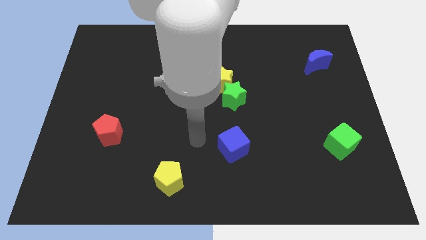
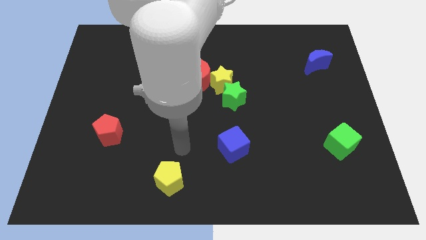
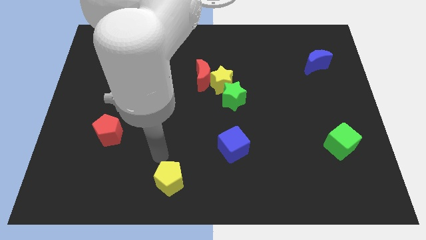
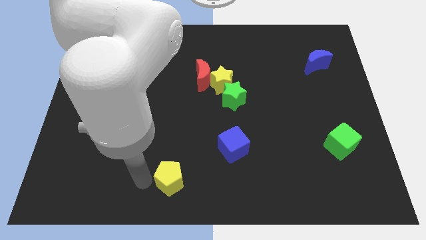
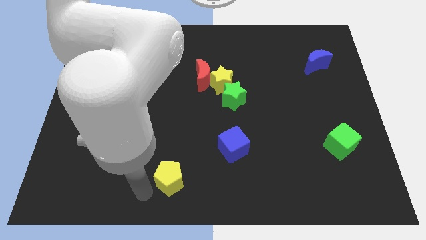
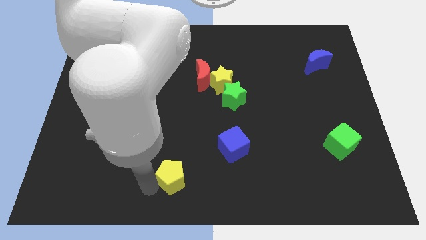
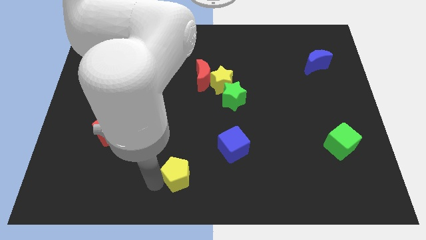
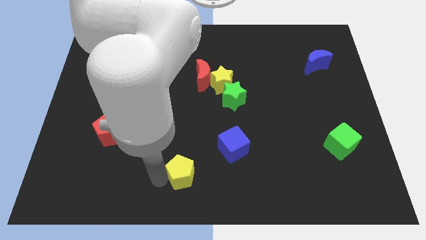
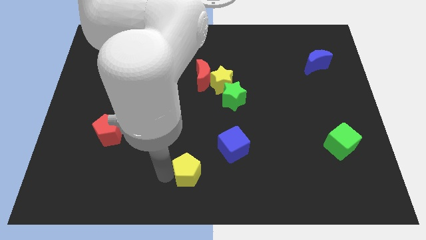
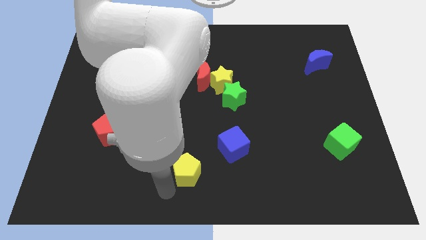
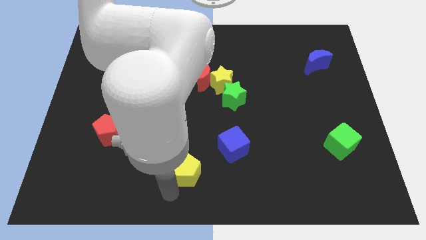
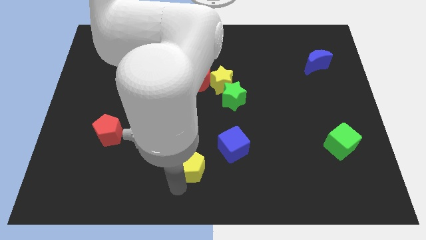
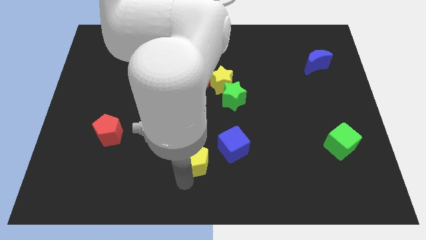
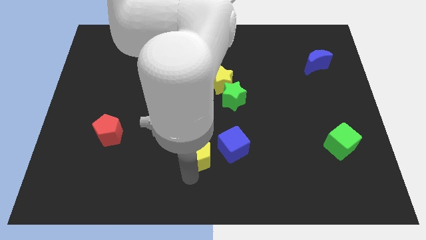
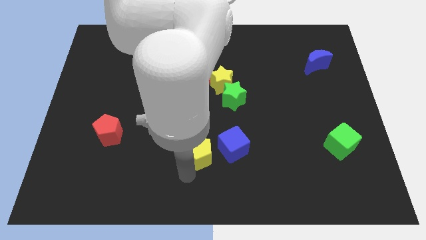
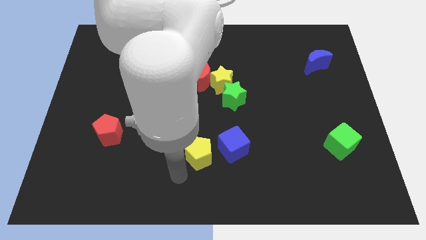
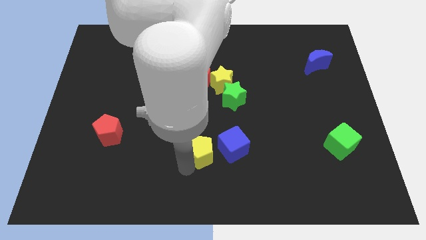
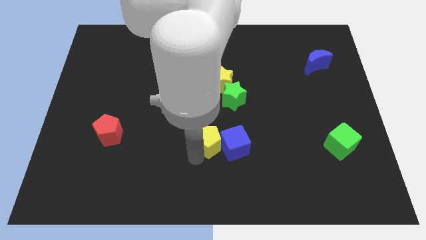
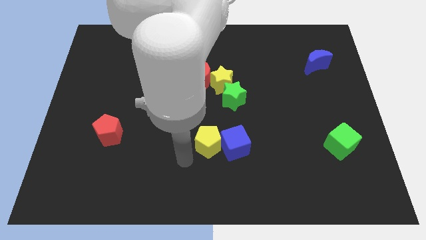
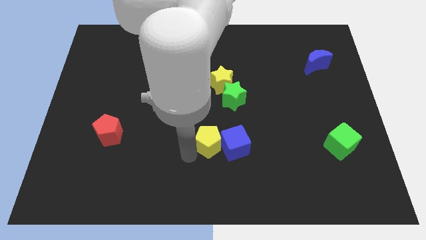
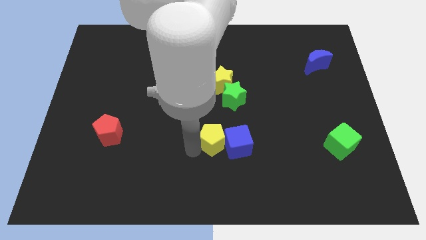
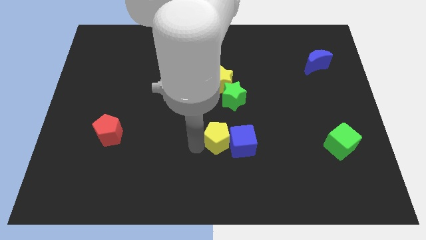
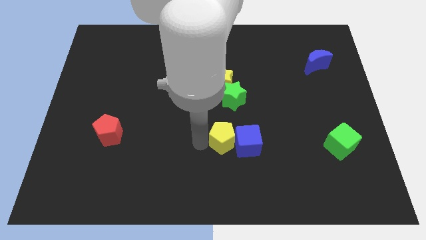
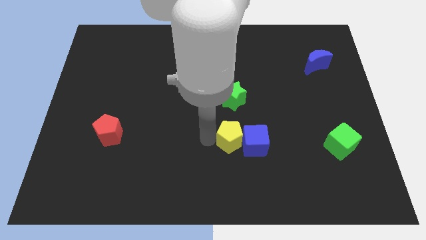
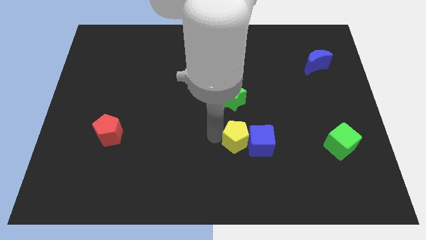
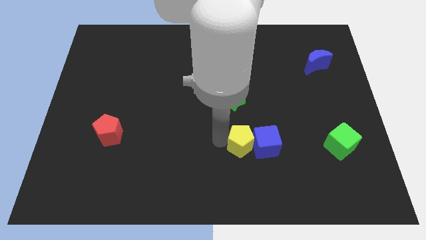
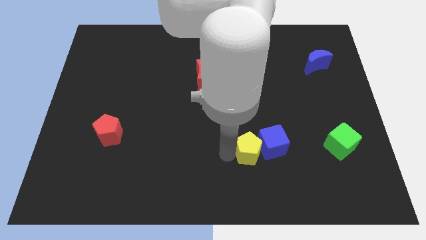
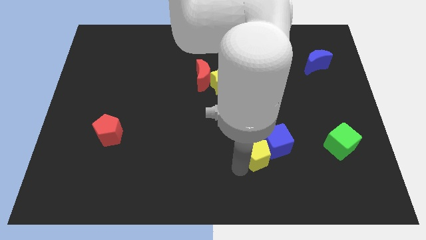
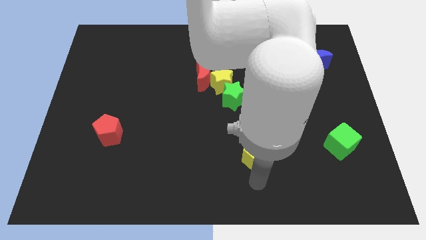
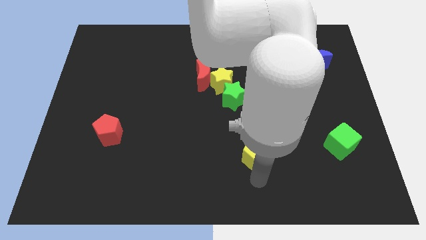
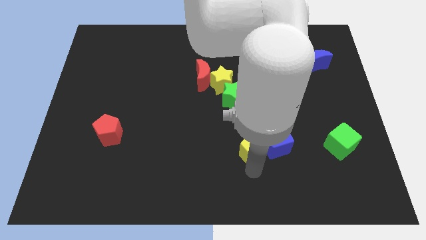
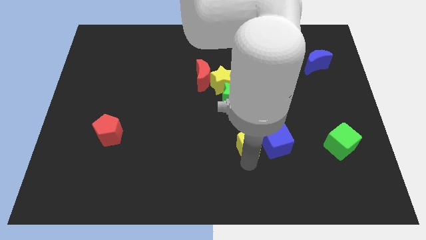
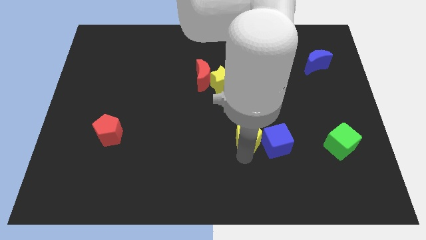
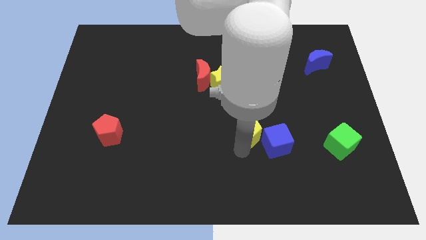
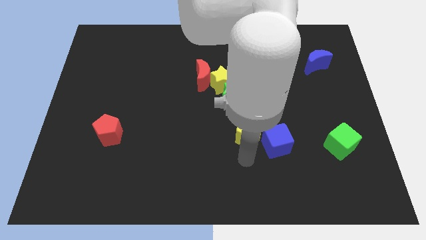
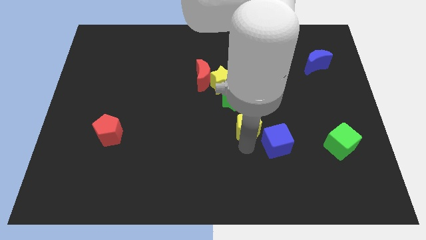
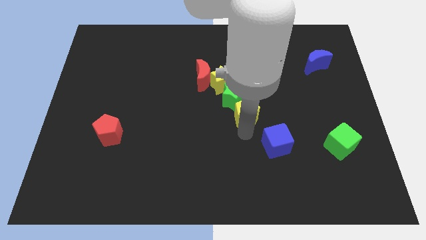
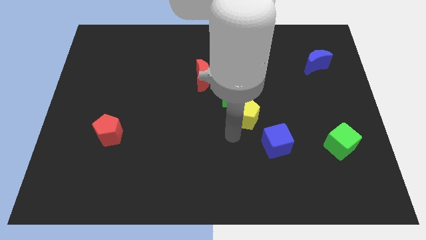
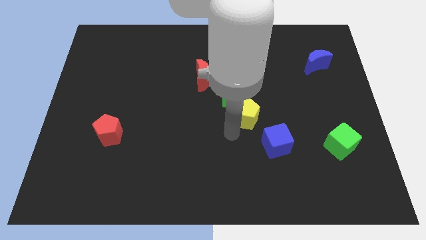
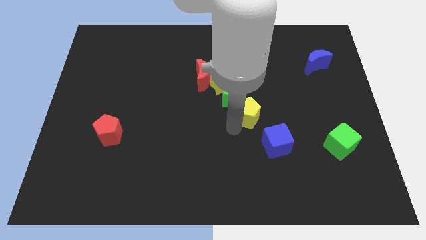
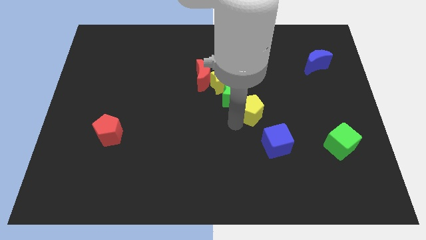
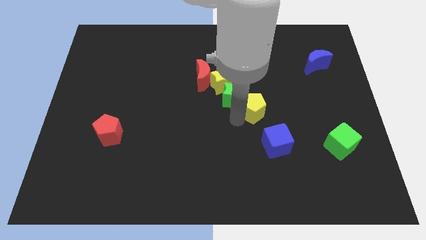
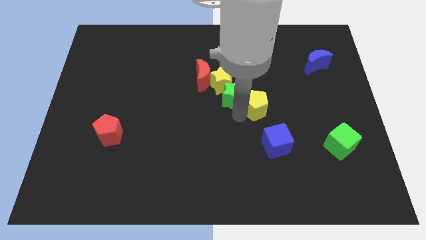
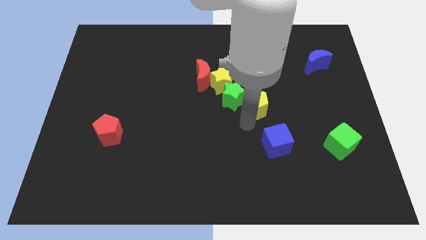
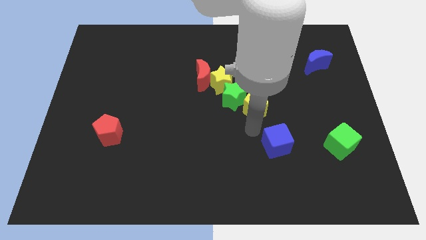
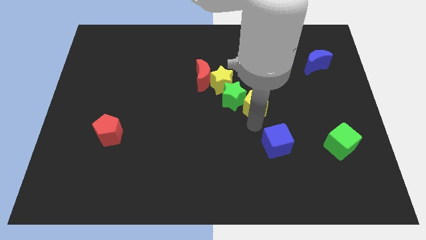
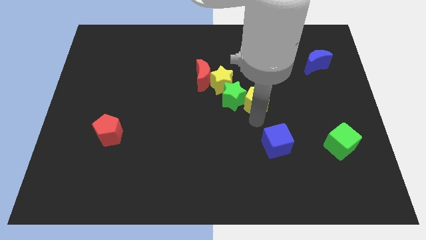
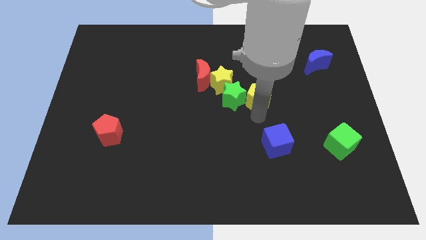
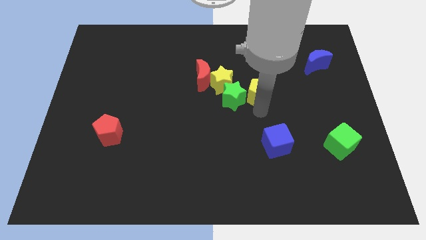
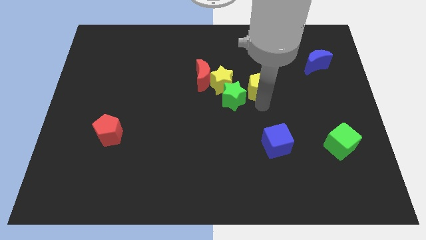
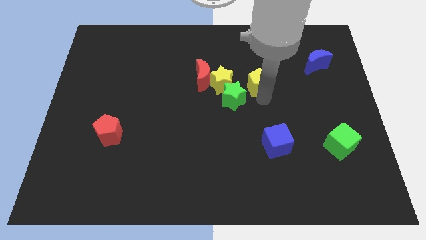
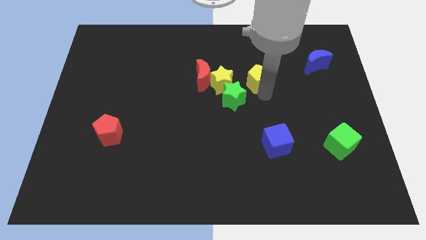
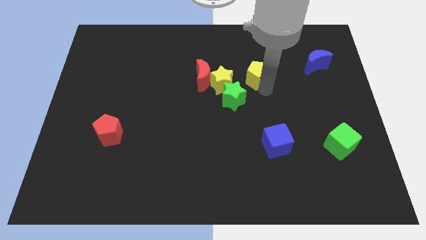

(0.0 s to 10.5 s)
push the yellow pentagon to the top right side of the yellow star
